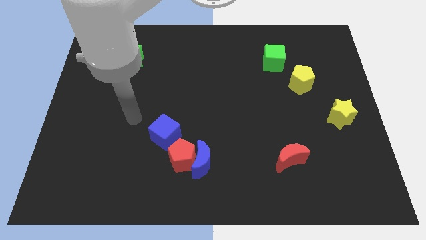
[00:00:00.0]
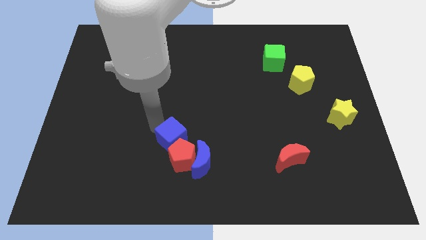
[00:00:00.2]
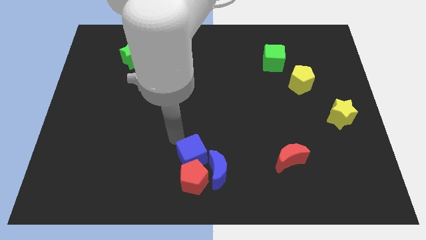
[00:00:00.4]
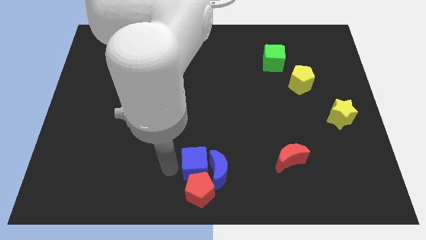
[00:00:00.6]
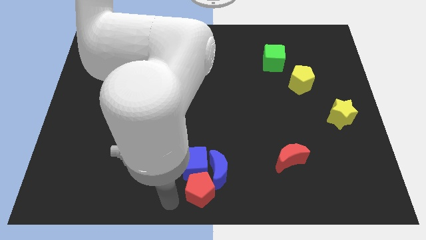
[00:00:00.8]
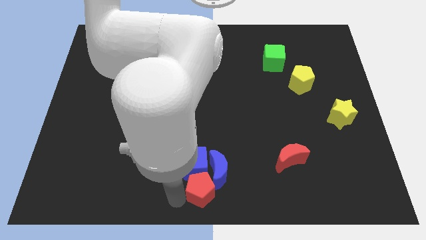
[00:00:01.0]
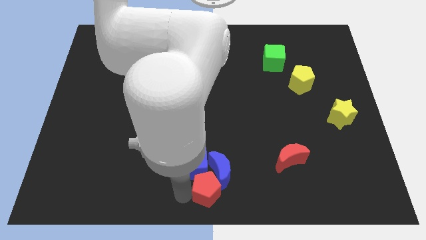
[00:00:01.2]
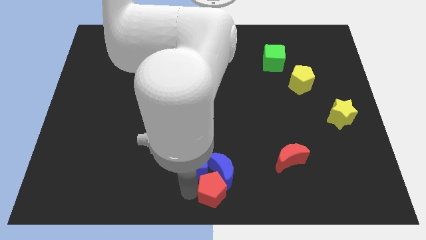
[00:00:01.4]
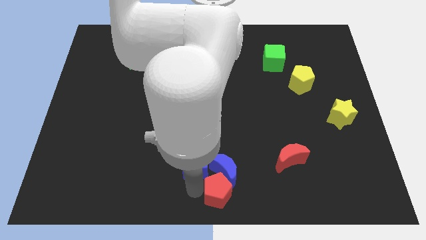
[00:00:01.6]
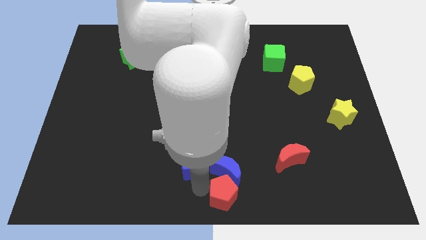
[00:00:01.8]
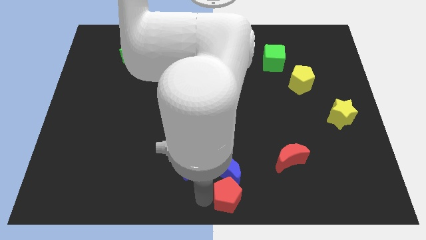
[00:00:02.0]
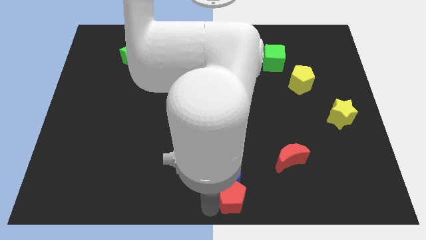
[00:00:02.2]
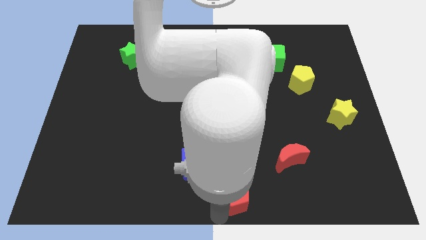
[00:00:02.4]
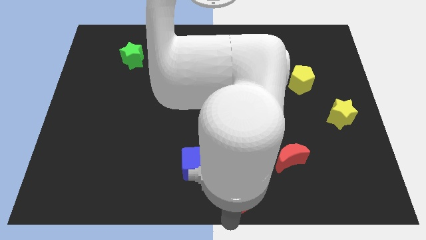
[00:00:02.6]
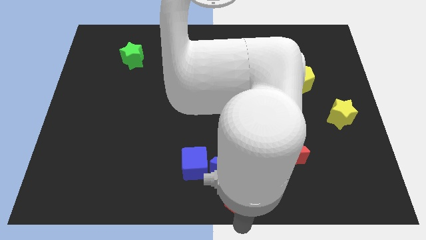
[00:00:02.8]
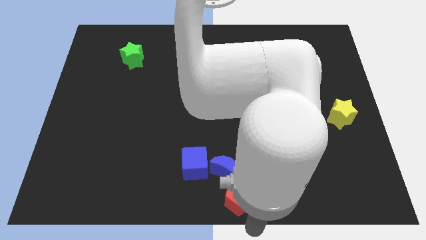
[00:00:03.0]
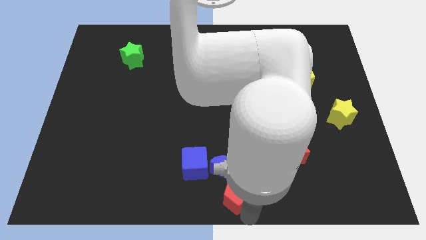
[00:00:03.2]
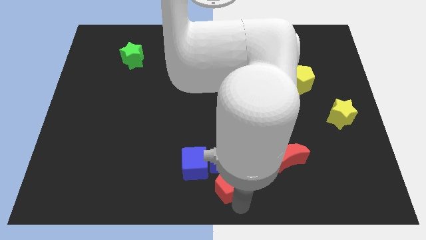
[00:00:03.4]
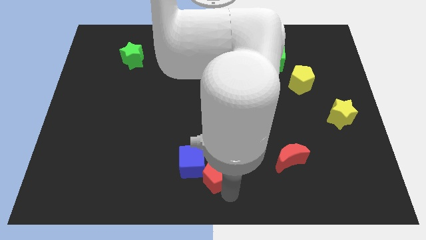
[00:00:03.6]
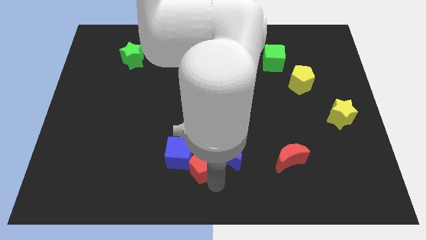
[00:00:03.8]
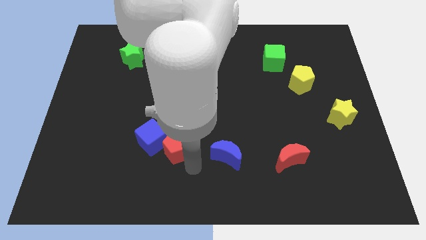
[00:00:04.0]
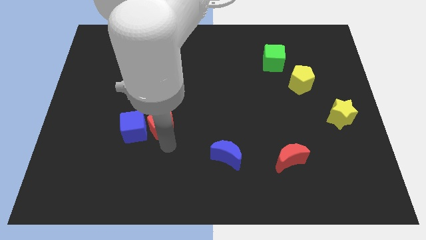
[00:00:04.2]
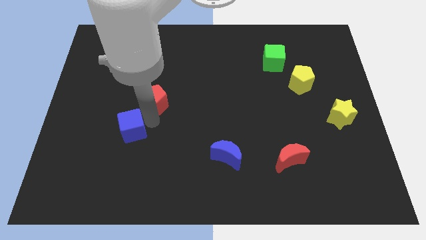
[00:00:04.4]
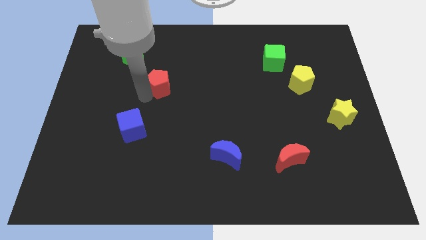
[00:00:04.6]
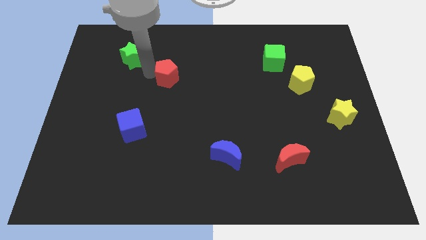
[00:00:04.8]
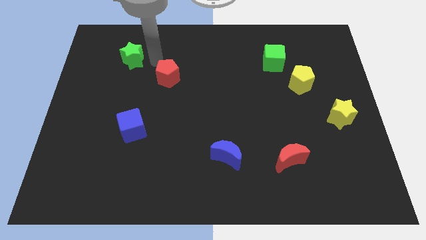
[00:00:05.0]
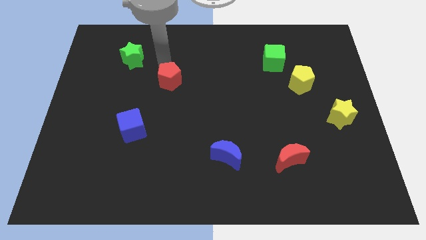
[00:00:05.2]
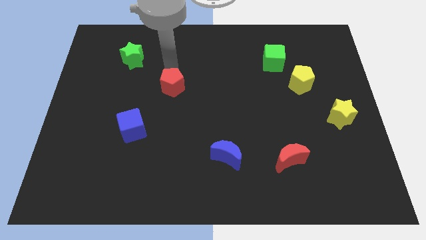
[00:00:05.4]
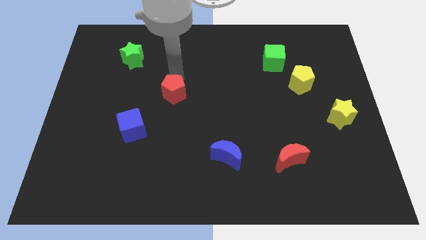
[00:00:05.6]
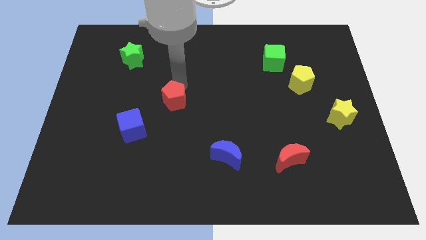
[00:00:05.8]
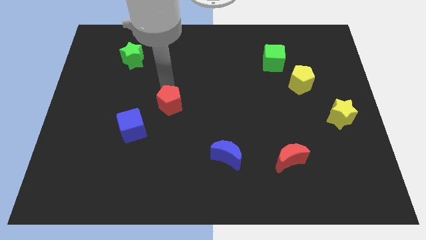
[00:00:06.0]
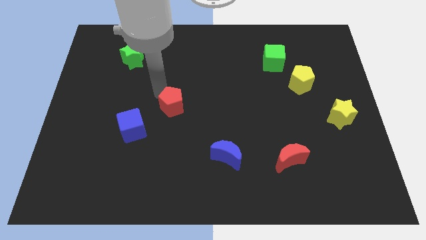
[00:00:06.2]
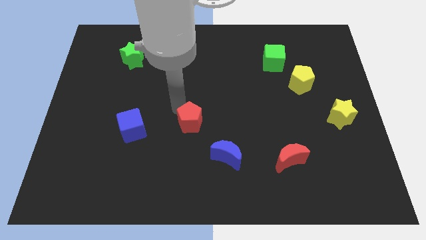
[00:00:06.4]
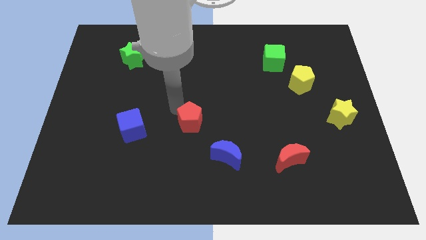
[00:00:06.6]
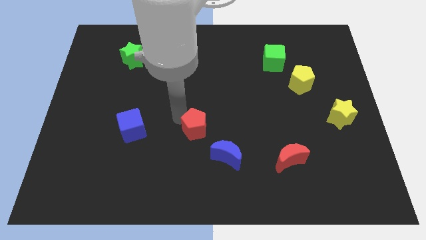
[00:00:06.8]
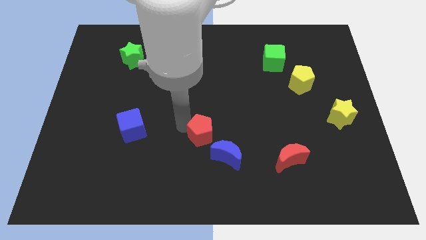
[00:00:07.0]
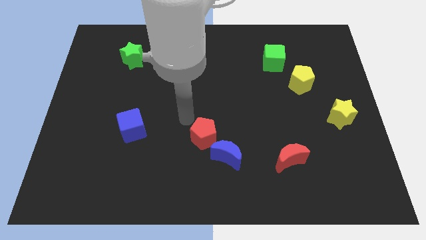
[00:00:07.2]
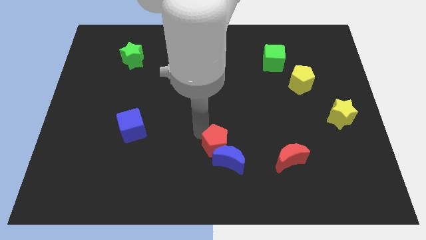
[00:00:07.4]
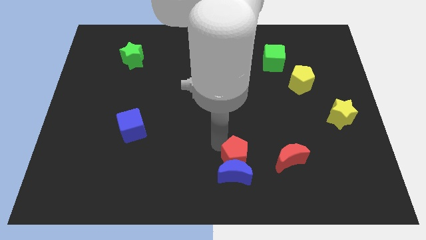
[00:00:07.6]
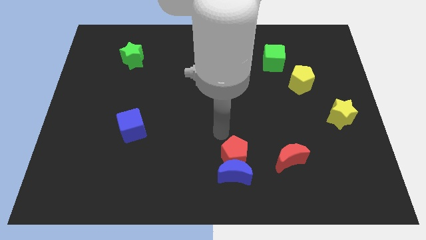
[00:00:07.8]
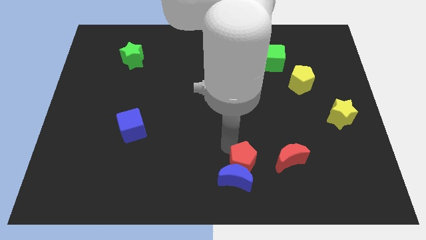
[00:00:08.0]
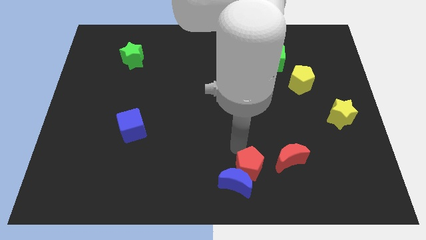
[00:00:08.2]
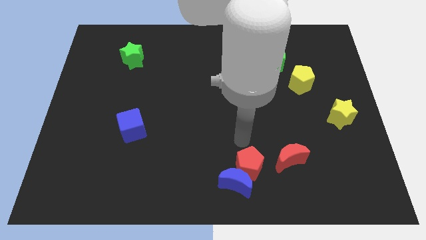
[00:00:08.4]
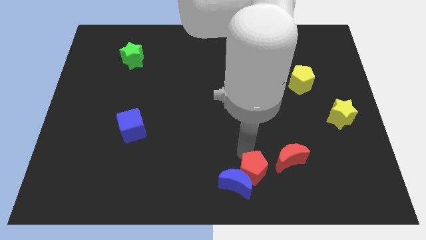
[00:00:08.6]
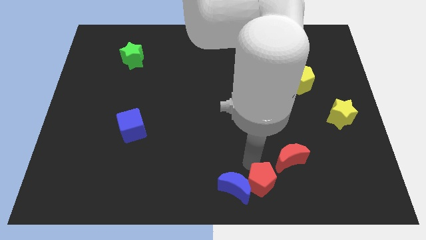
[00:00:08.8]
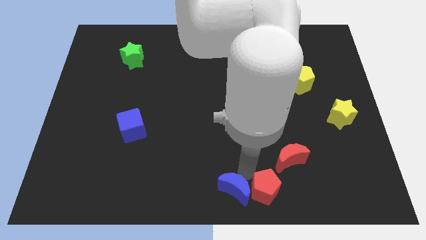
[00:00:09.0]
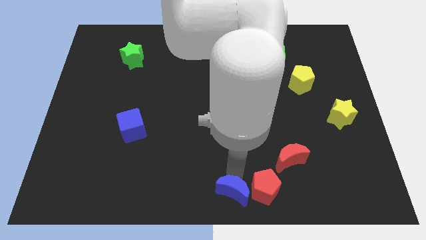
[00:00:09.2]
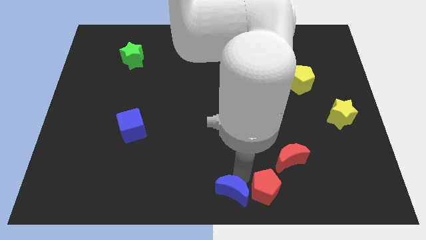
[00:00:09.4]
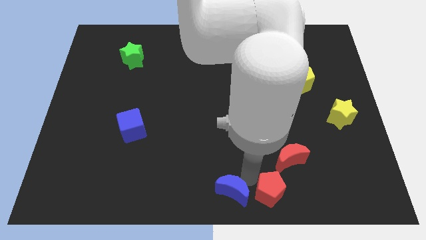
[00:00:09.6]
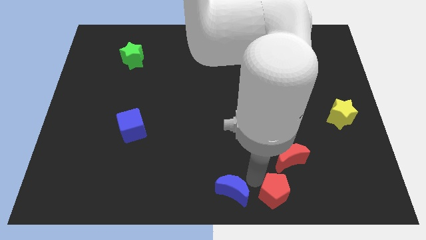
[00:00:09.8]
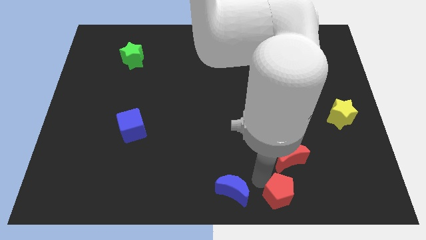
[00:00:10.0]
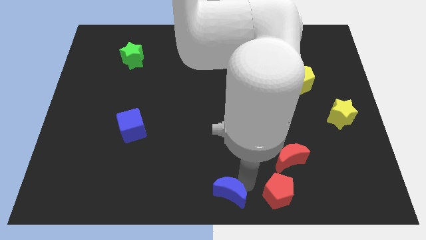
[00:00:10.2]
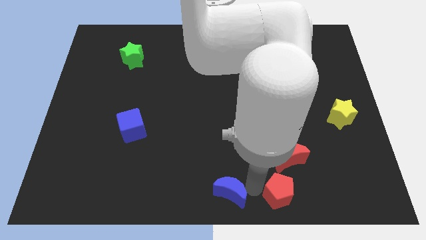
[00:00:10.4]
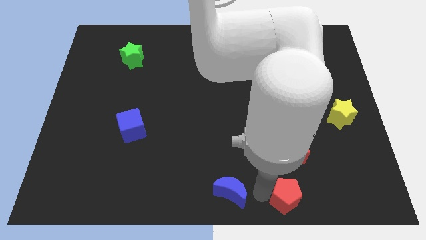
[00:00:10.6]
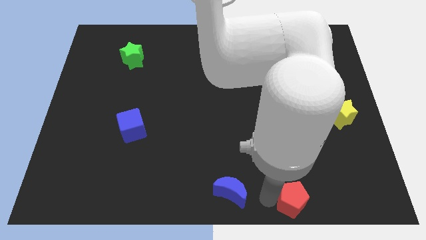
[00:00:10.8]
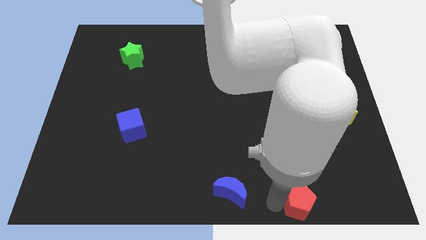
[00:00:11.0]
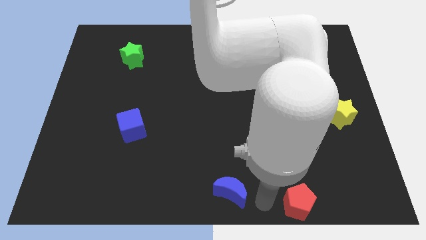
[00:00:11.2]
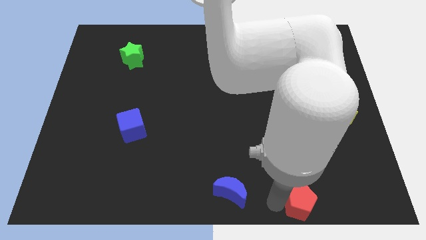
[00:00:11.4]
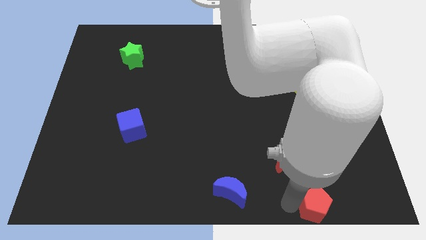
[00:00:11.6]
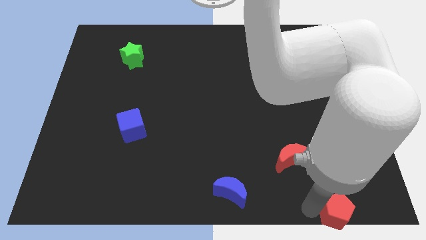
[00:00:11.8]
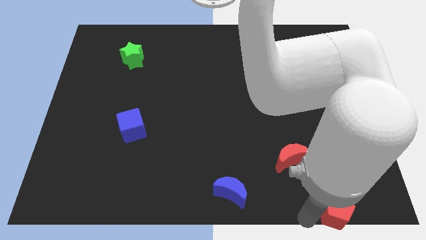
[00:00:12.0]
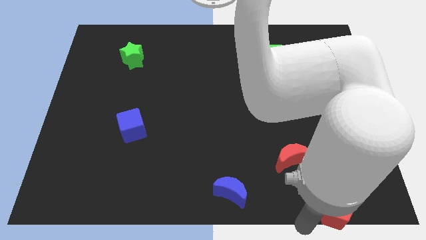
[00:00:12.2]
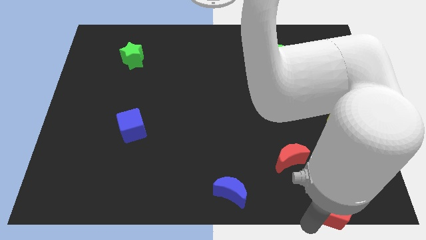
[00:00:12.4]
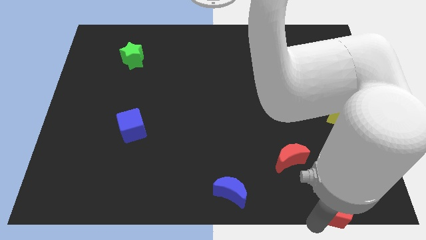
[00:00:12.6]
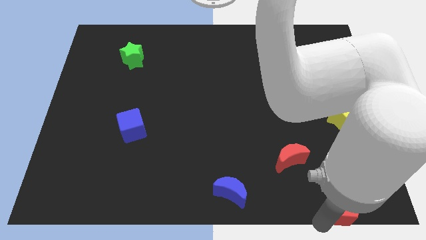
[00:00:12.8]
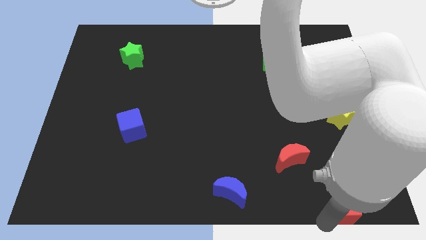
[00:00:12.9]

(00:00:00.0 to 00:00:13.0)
push the red pentagon to the bottom right corner

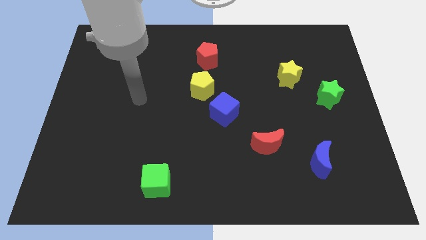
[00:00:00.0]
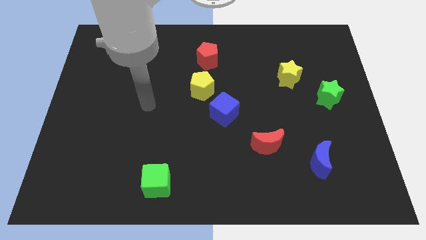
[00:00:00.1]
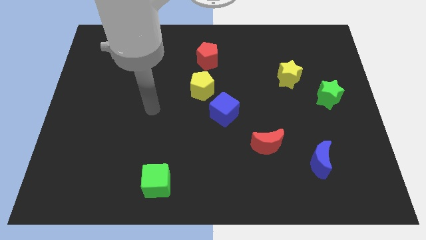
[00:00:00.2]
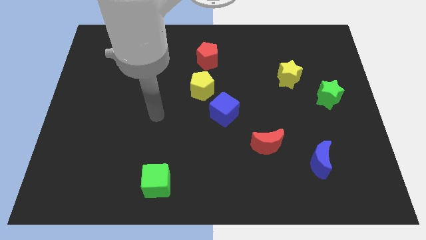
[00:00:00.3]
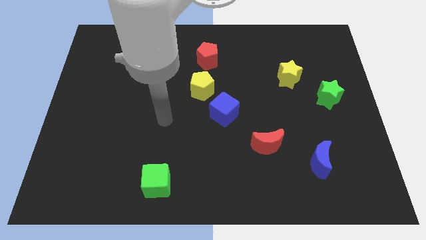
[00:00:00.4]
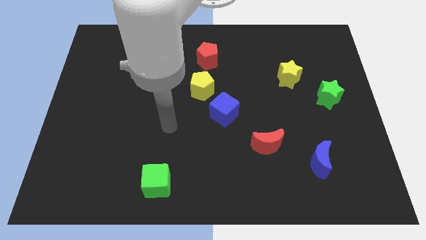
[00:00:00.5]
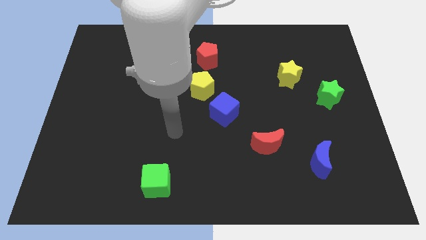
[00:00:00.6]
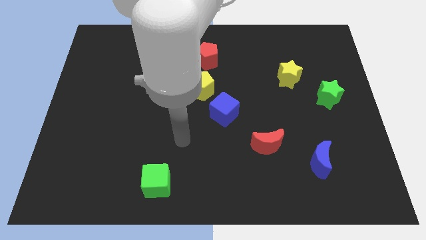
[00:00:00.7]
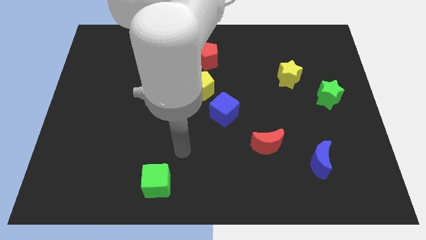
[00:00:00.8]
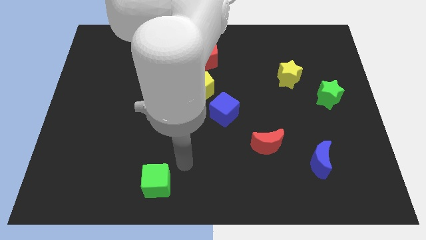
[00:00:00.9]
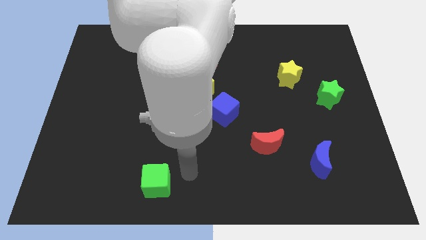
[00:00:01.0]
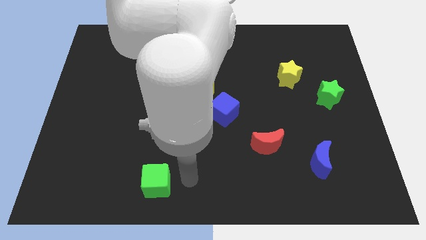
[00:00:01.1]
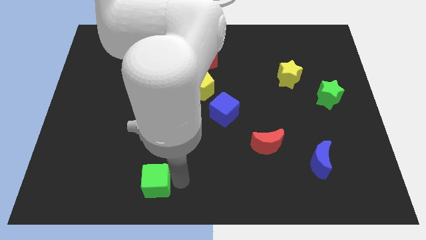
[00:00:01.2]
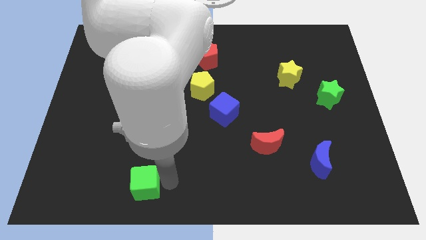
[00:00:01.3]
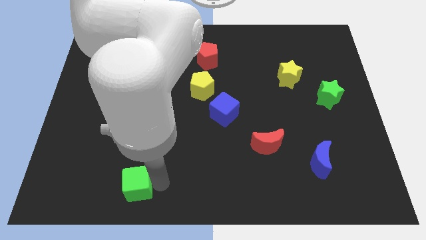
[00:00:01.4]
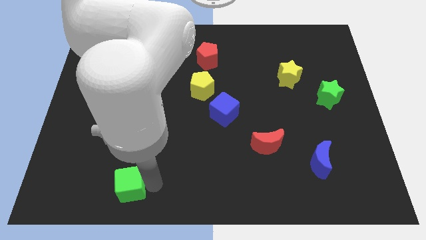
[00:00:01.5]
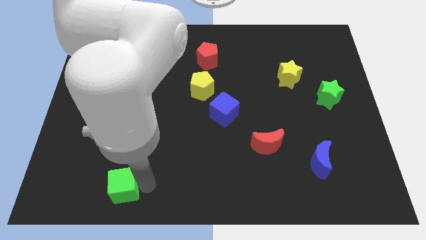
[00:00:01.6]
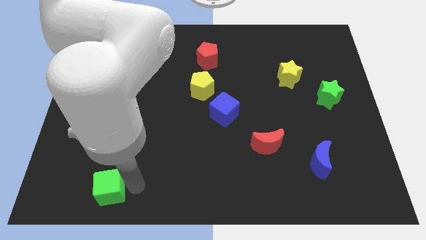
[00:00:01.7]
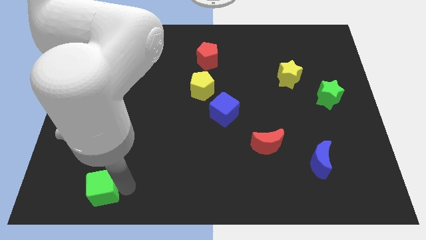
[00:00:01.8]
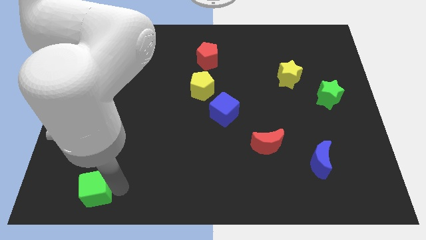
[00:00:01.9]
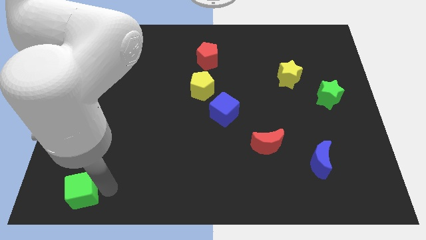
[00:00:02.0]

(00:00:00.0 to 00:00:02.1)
push the green cube to the bottom left corner
